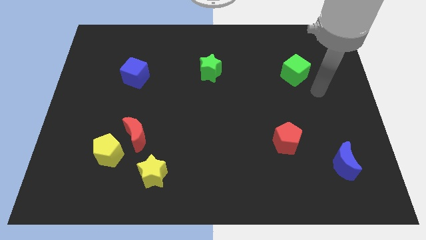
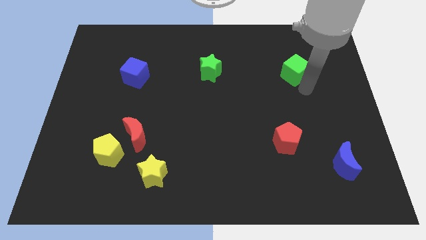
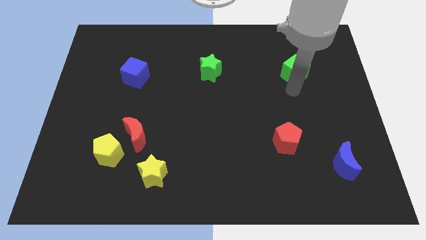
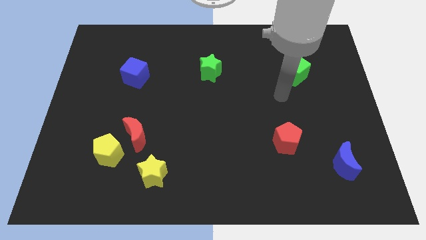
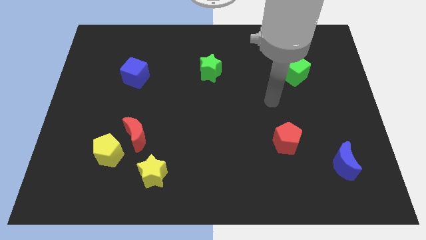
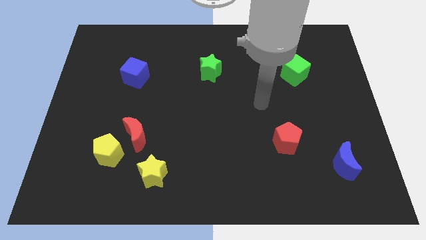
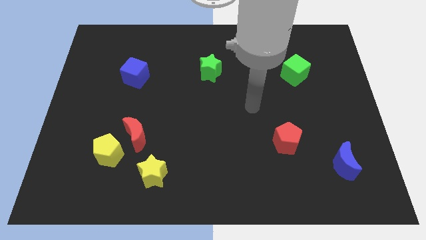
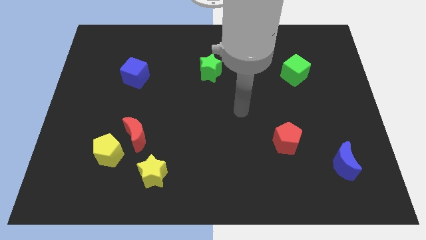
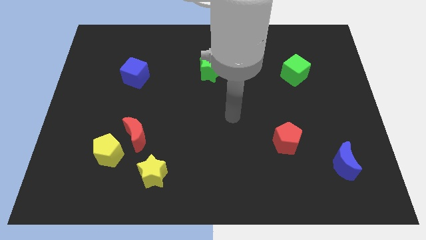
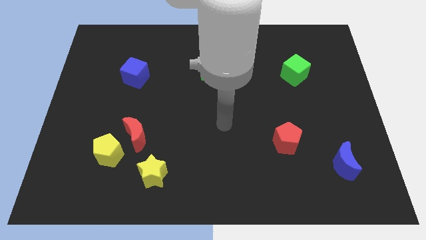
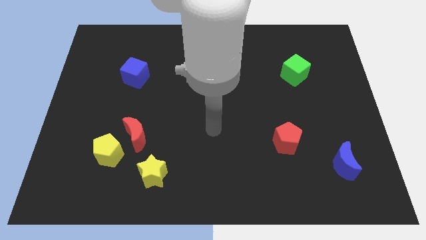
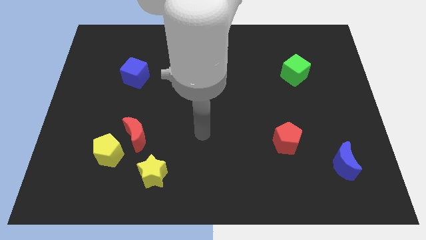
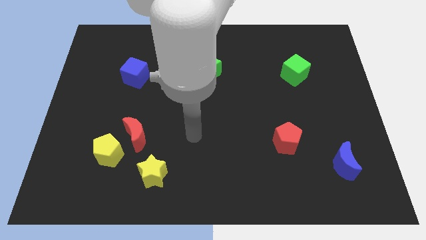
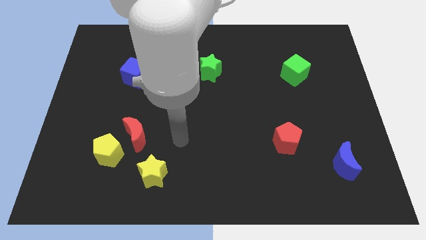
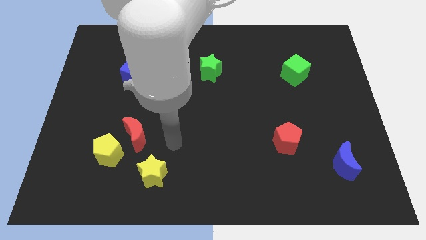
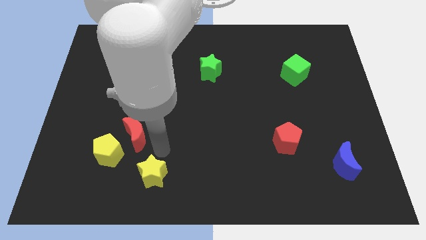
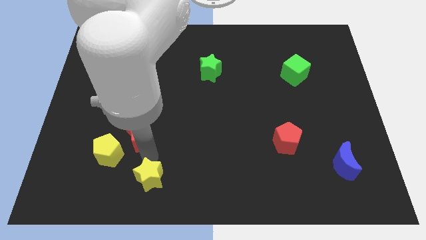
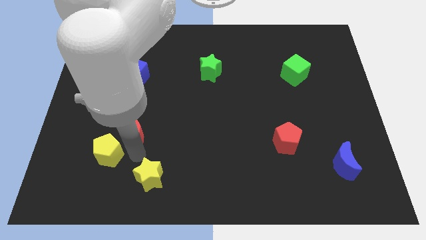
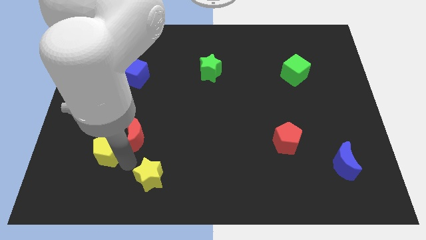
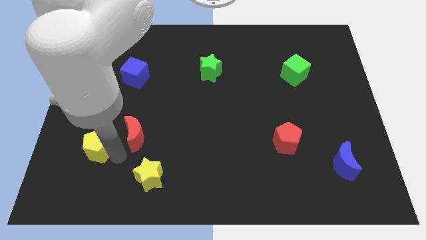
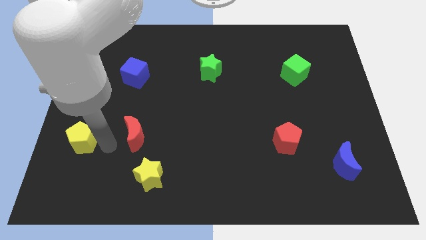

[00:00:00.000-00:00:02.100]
move the red moon away from the yellow pentagon

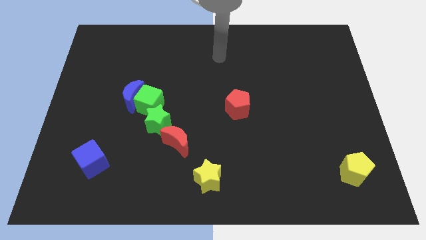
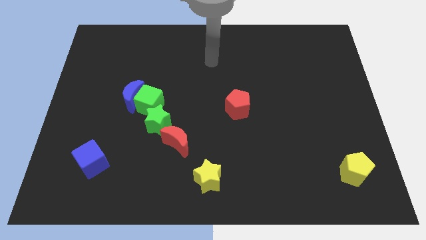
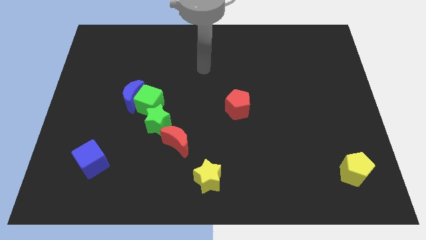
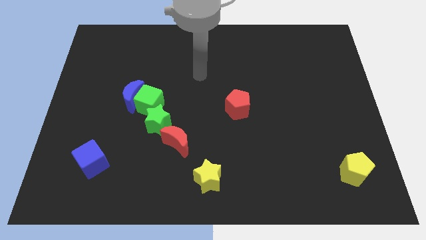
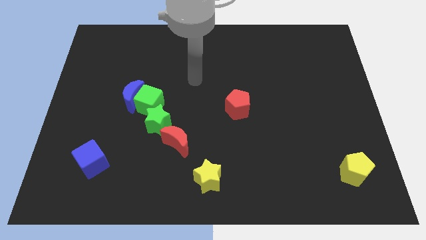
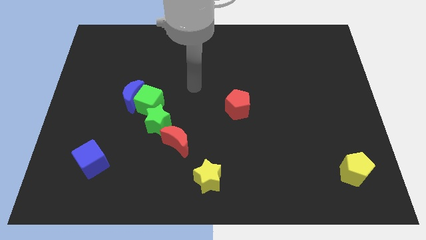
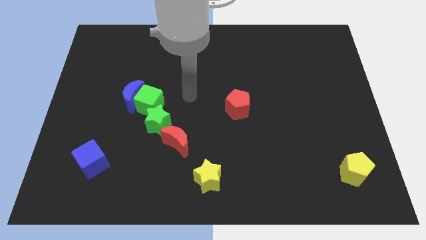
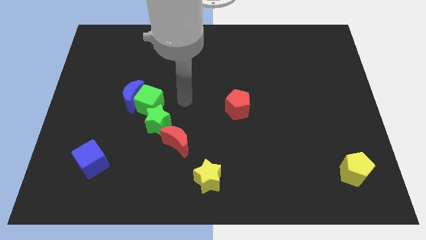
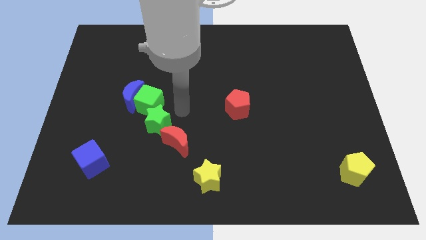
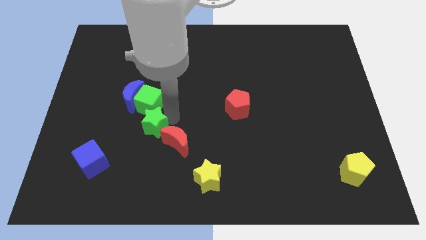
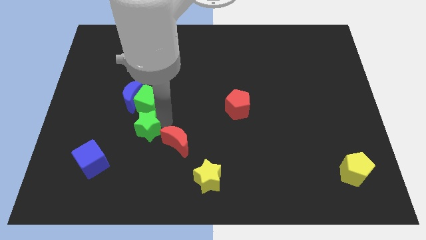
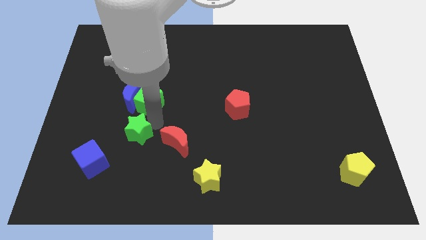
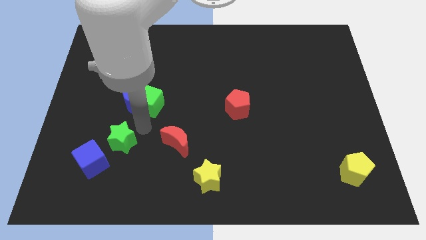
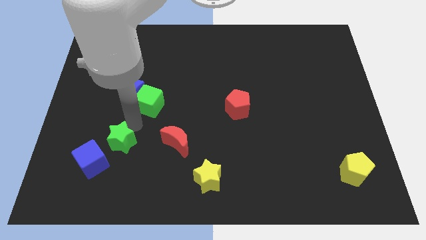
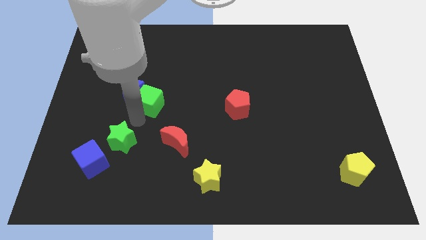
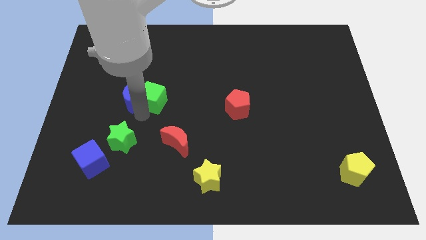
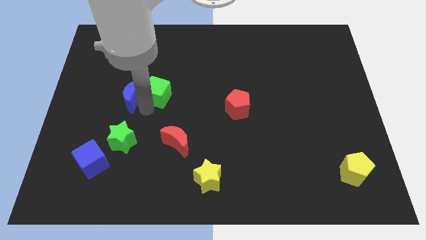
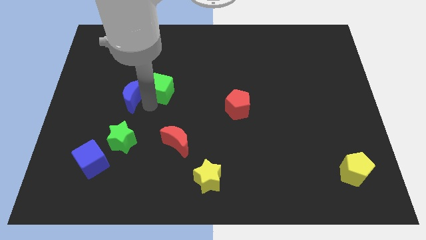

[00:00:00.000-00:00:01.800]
move the green cube away from the blue moon and green star

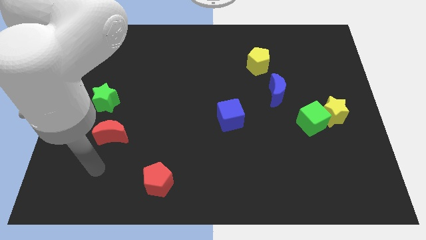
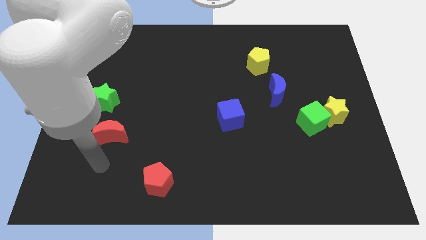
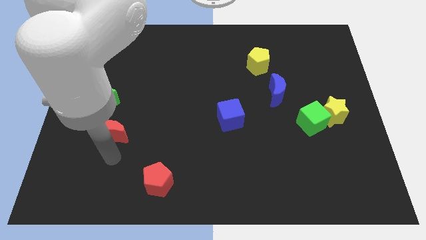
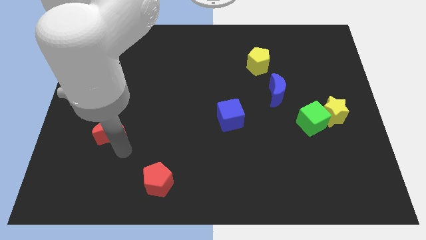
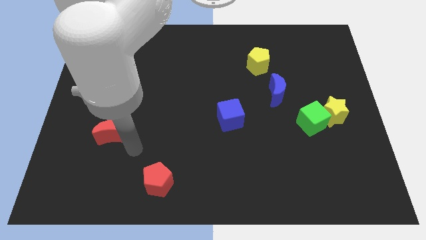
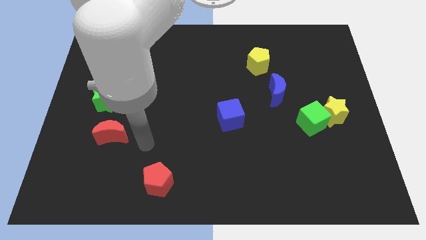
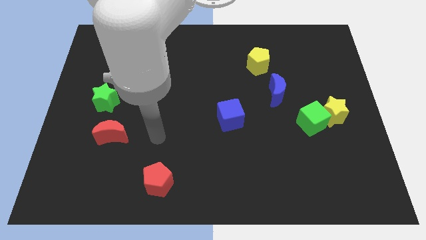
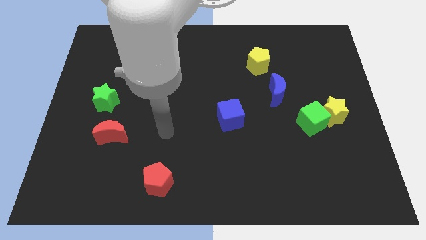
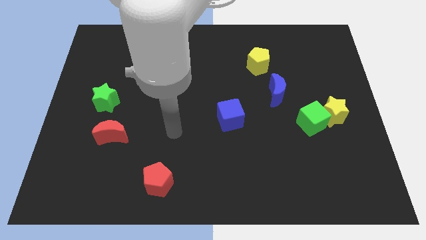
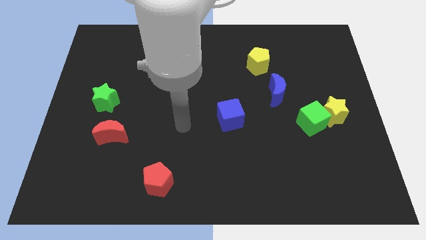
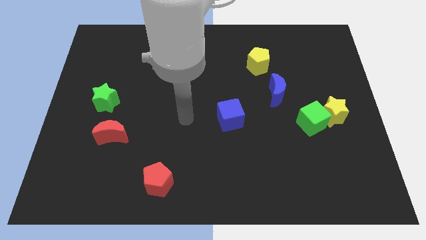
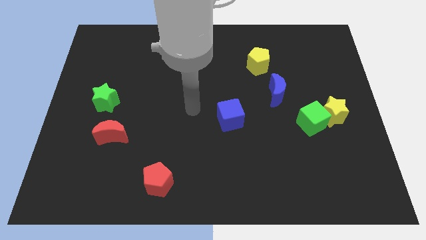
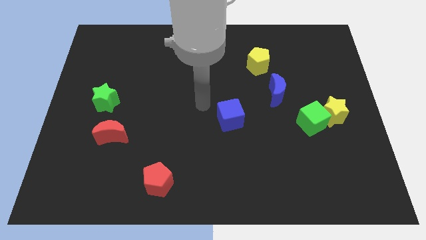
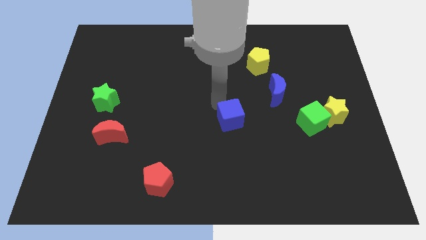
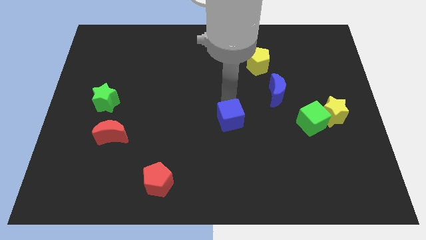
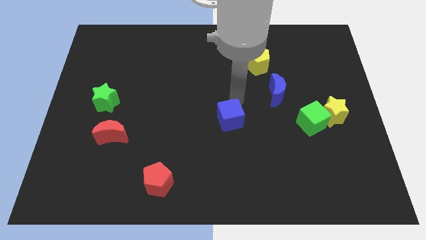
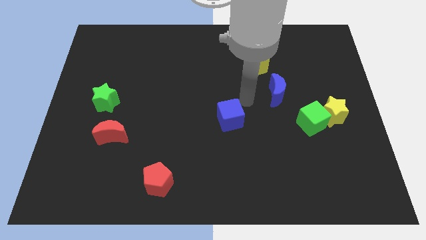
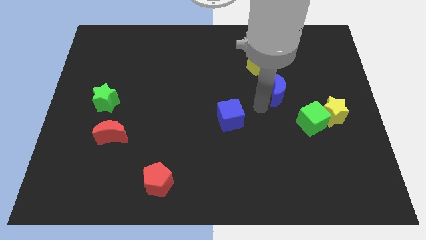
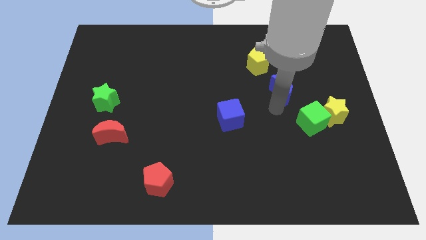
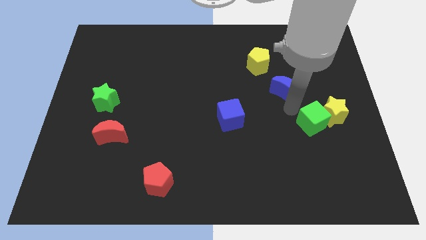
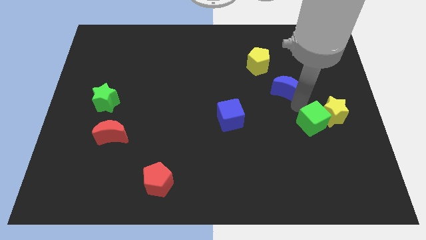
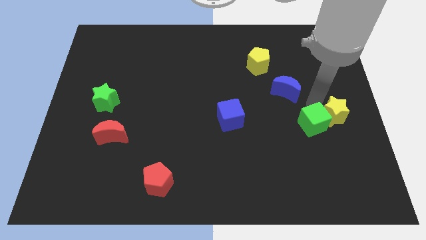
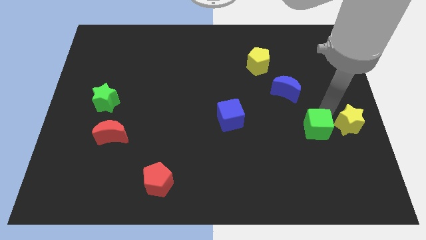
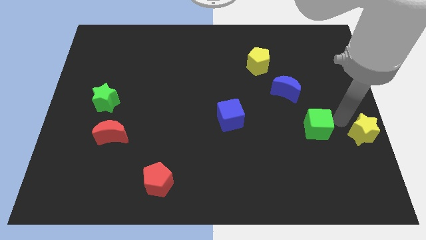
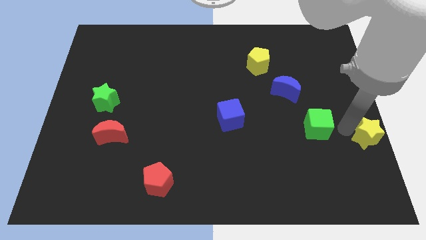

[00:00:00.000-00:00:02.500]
move the green cube away from the yellow star

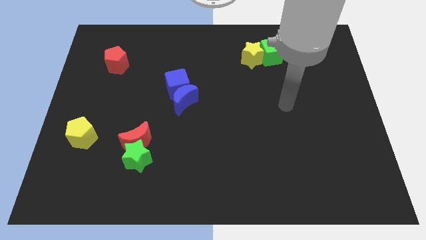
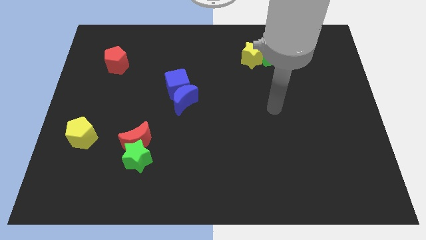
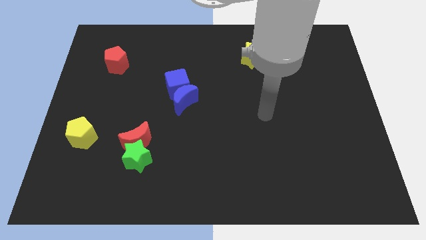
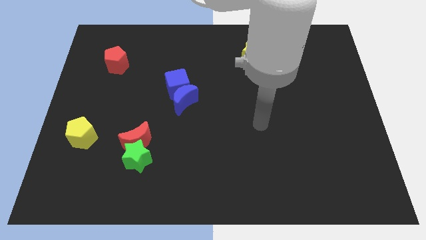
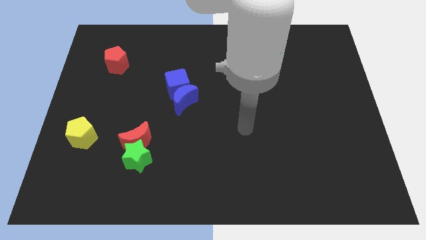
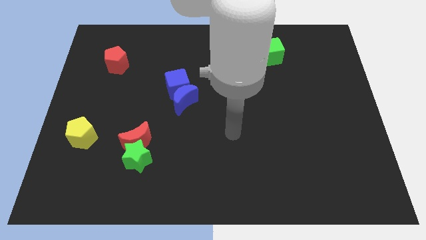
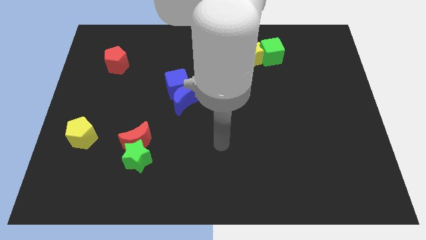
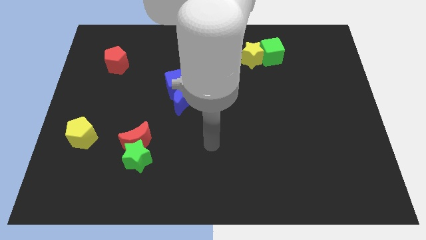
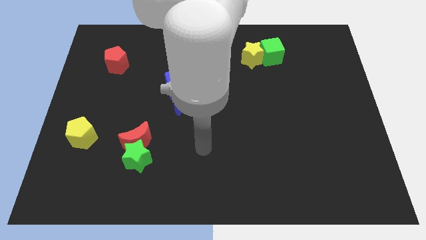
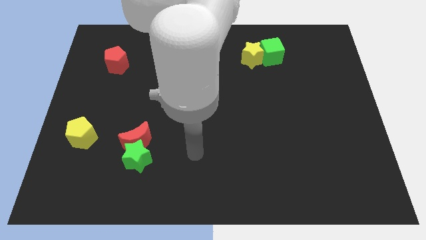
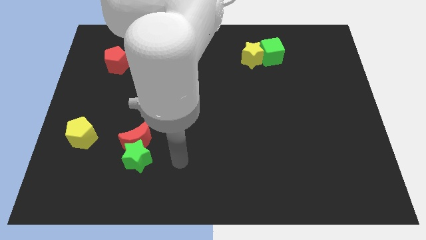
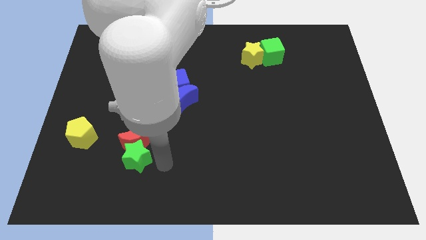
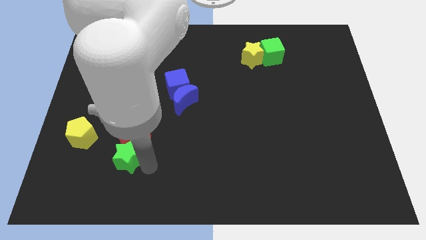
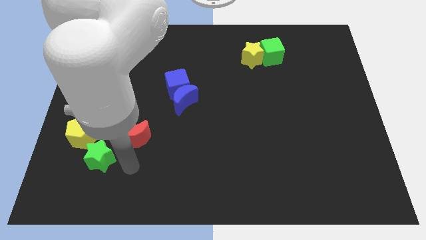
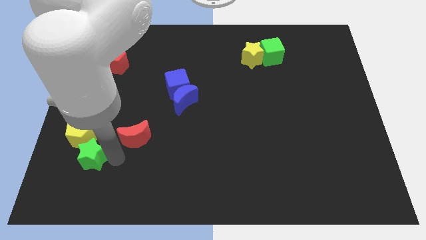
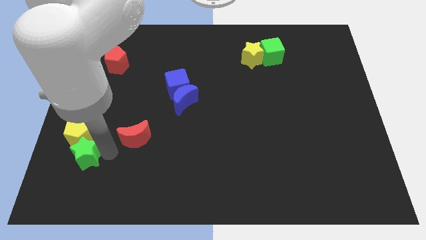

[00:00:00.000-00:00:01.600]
separate the red moon from the green star

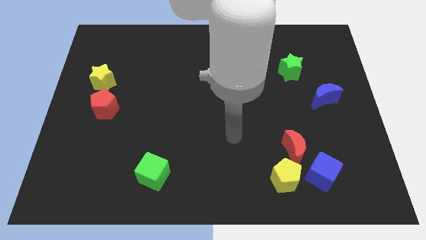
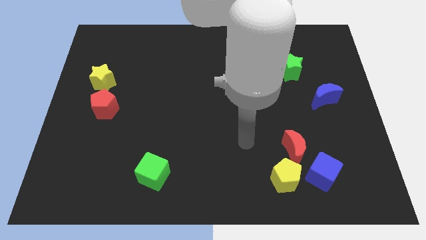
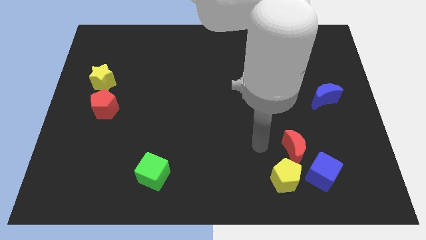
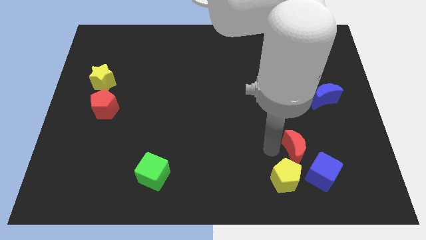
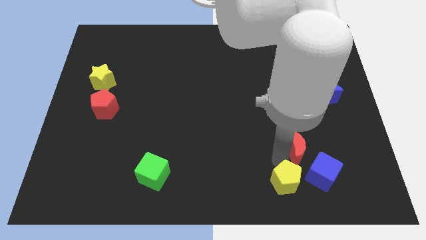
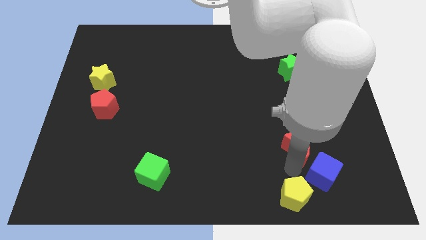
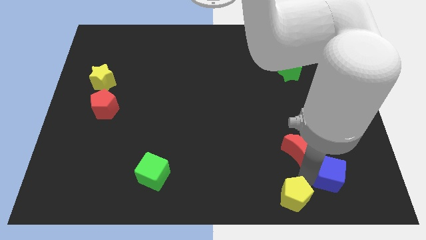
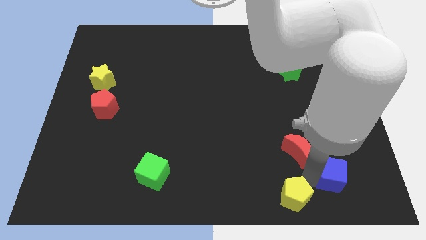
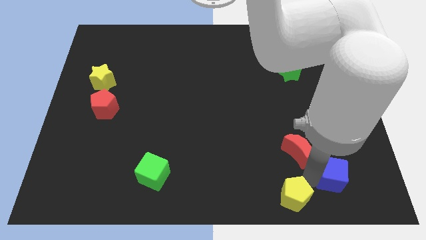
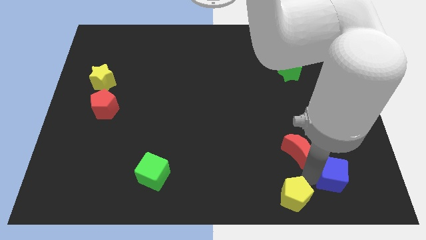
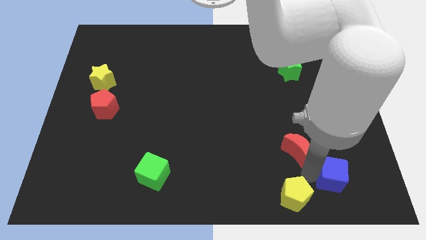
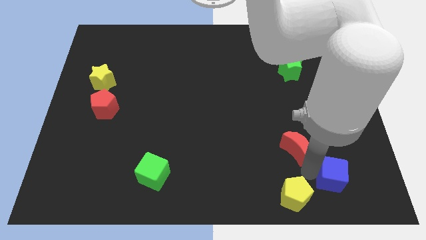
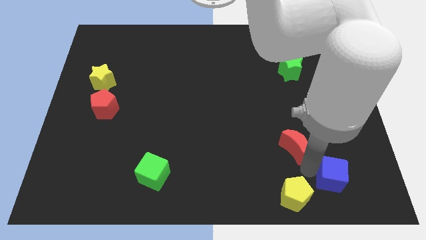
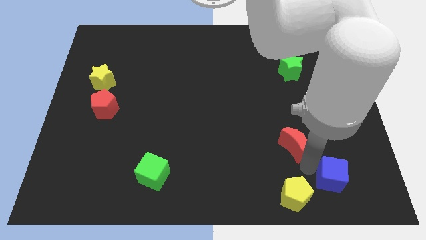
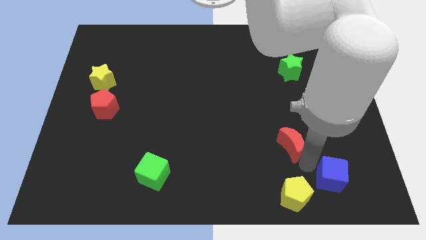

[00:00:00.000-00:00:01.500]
separate the red moon from the yellow pentagon and blue cube
